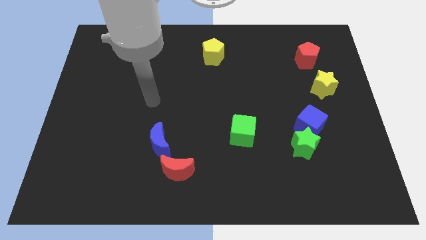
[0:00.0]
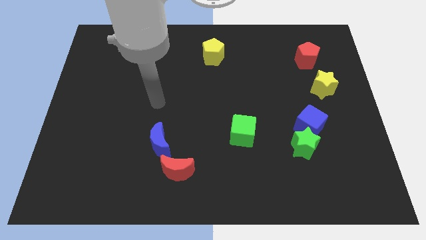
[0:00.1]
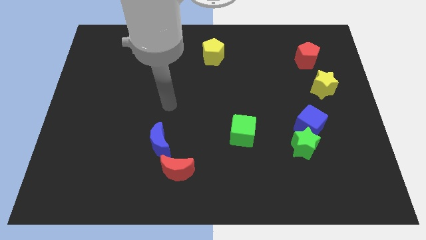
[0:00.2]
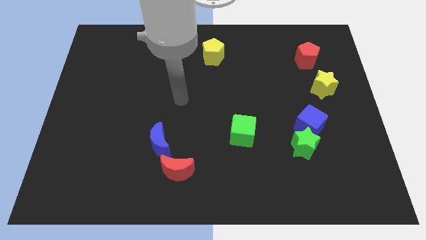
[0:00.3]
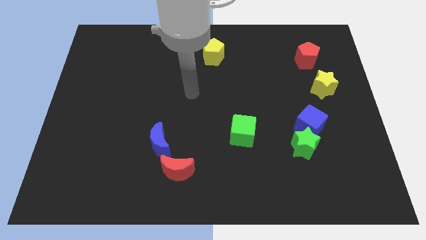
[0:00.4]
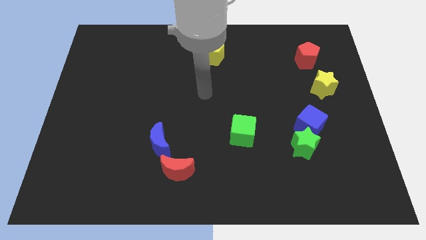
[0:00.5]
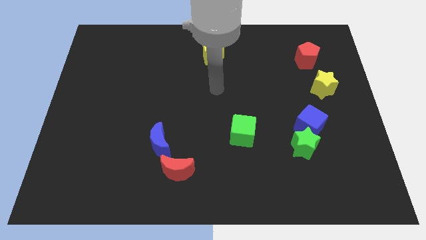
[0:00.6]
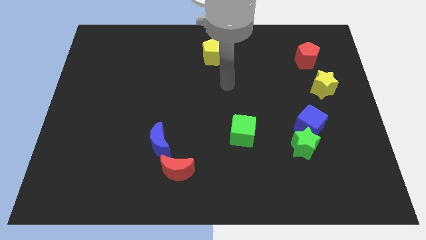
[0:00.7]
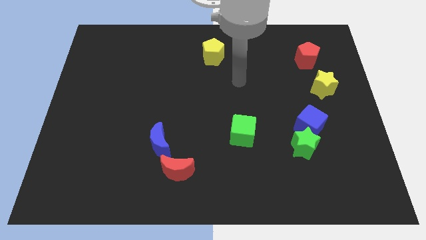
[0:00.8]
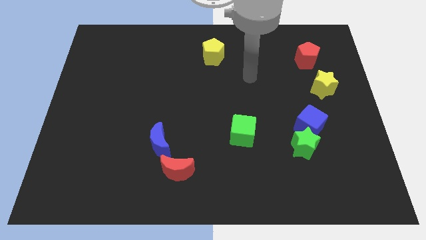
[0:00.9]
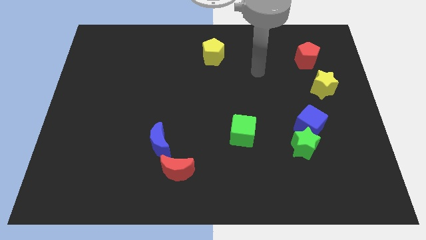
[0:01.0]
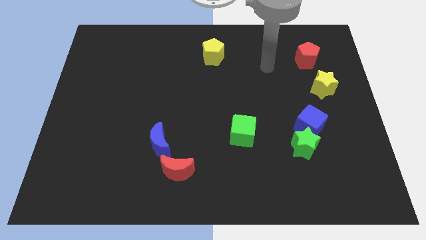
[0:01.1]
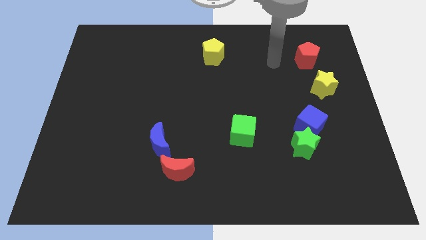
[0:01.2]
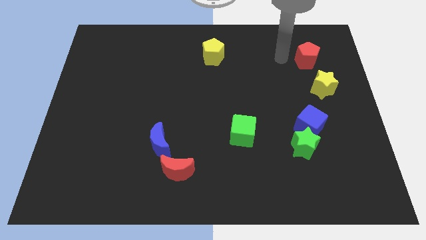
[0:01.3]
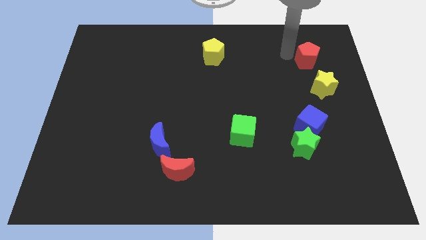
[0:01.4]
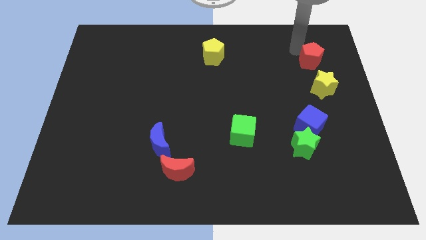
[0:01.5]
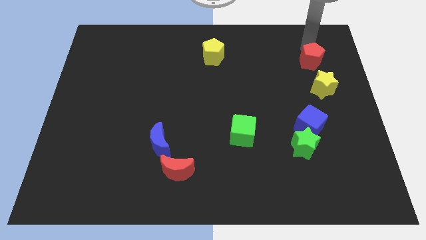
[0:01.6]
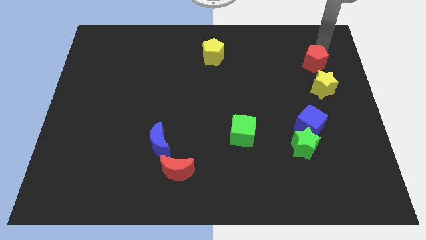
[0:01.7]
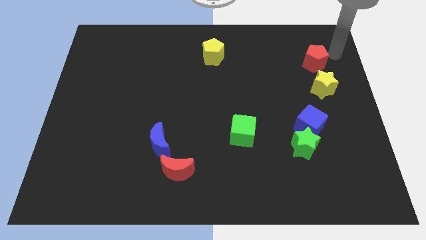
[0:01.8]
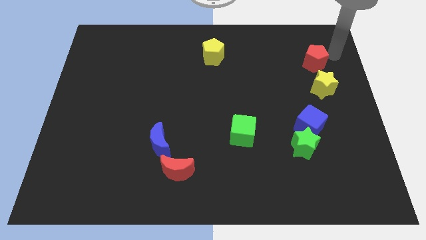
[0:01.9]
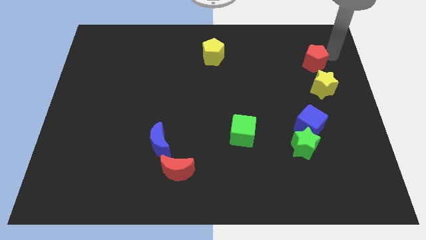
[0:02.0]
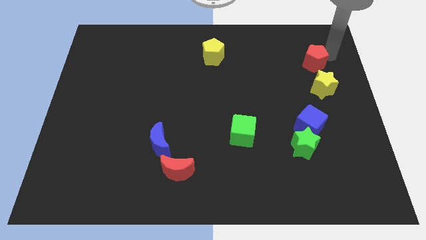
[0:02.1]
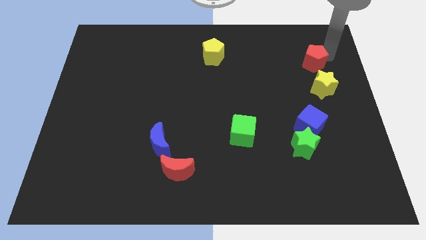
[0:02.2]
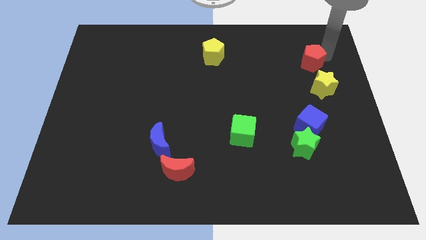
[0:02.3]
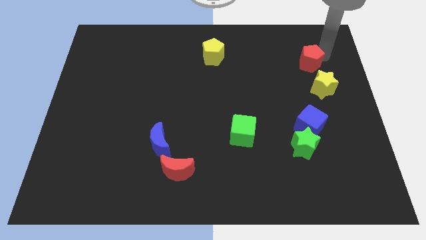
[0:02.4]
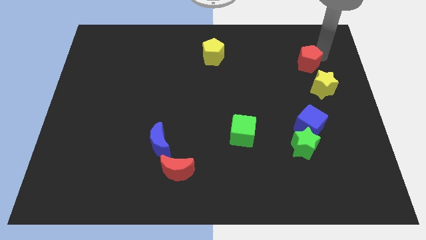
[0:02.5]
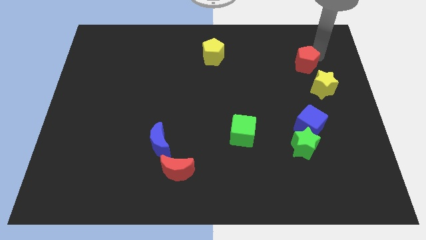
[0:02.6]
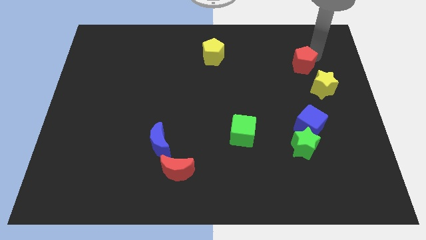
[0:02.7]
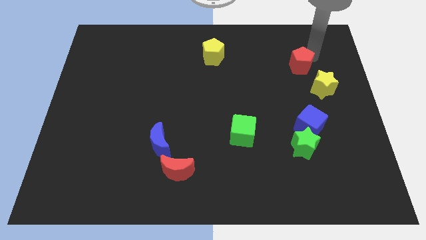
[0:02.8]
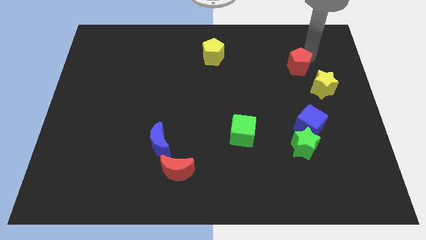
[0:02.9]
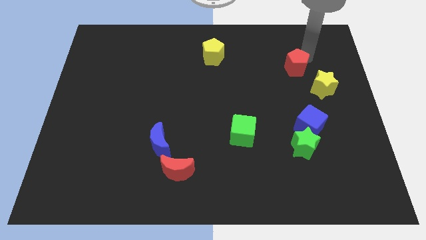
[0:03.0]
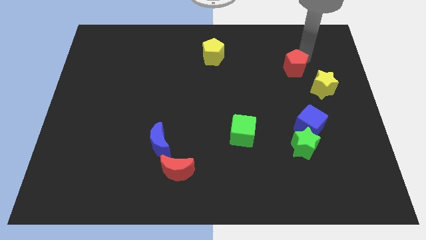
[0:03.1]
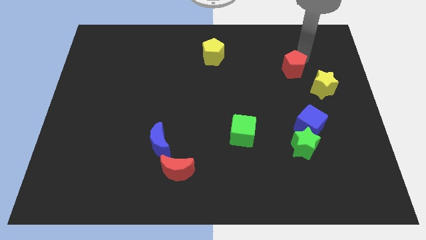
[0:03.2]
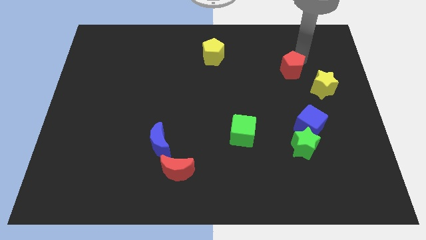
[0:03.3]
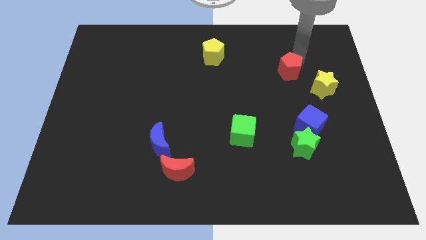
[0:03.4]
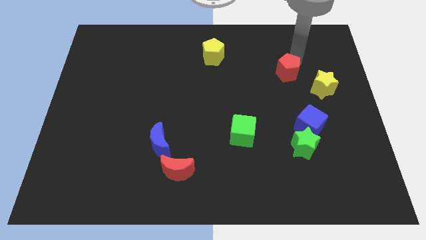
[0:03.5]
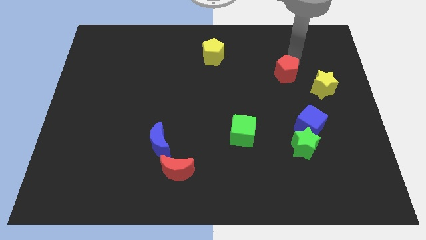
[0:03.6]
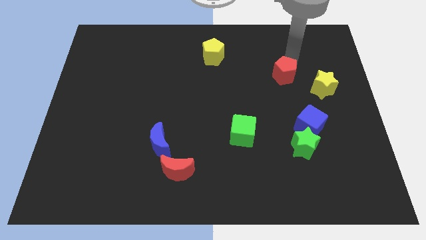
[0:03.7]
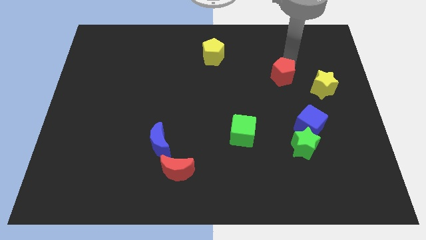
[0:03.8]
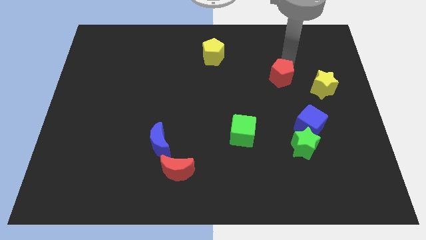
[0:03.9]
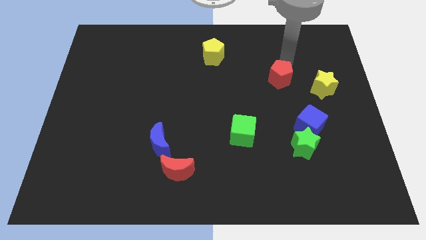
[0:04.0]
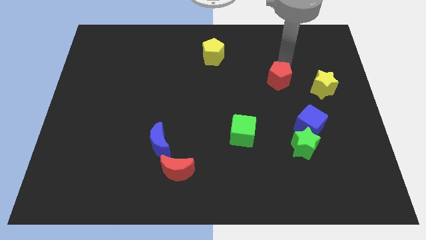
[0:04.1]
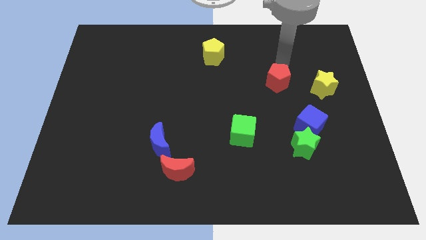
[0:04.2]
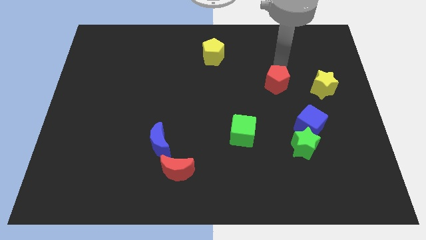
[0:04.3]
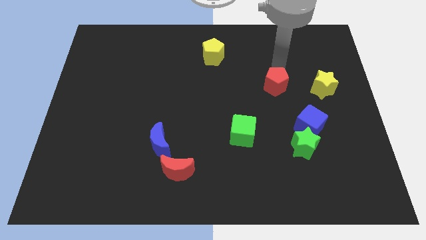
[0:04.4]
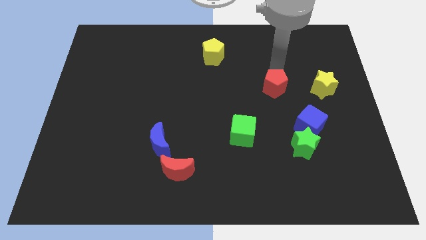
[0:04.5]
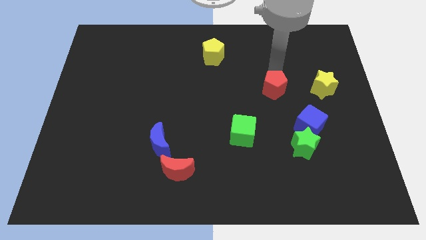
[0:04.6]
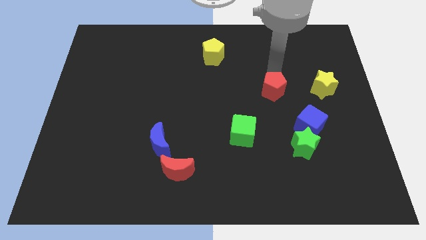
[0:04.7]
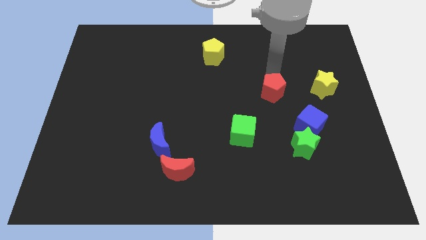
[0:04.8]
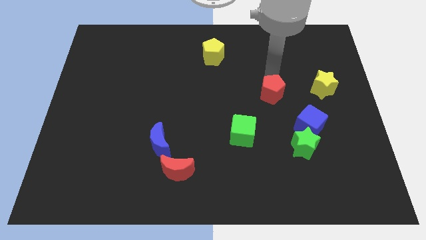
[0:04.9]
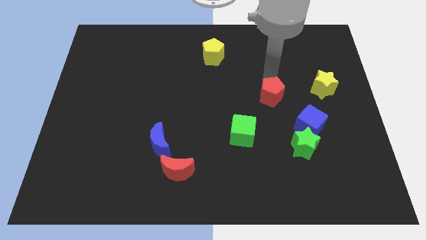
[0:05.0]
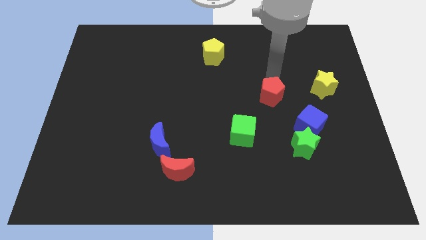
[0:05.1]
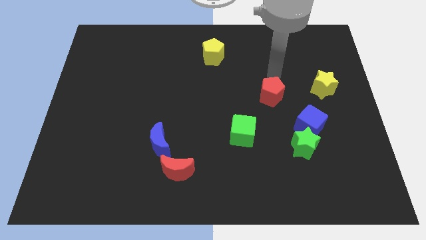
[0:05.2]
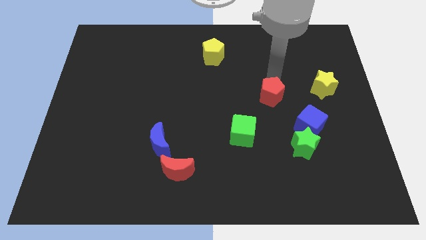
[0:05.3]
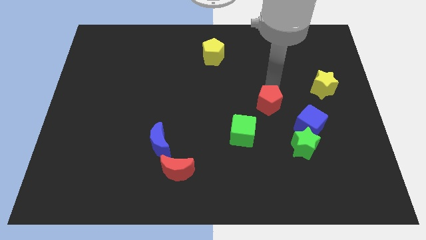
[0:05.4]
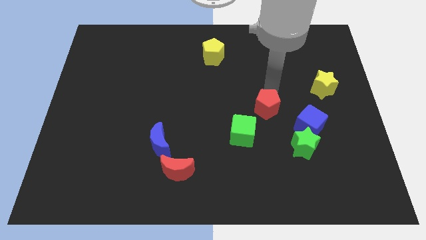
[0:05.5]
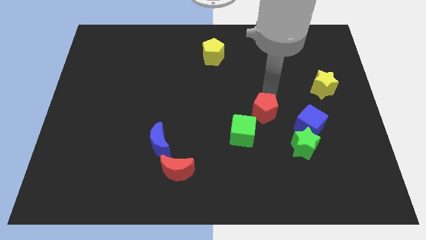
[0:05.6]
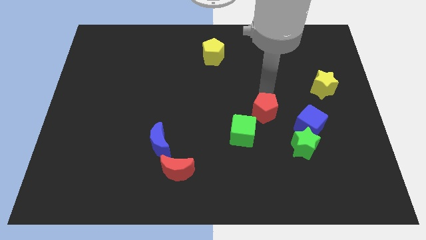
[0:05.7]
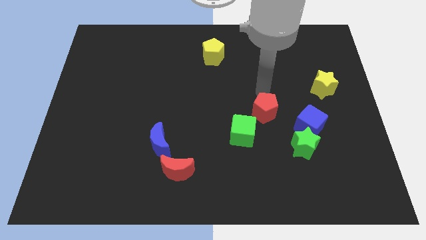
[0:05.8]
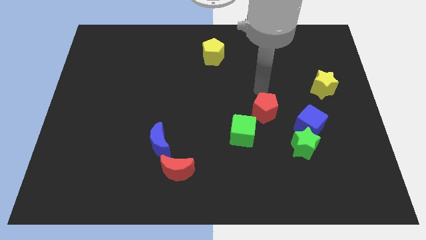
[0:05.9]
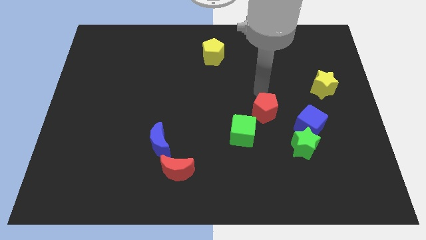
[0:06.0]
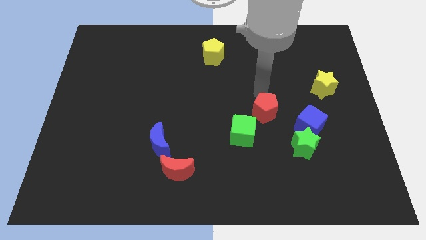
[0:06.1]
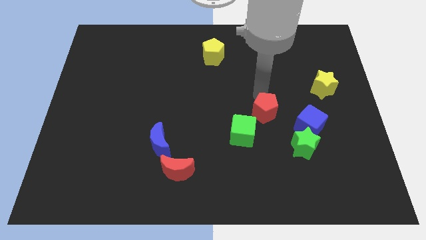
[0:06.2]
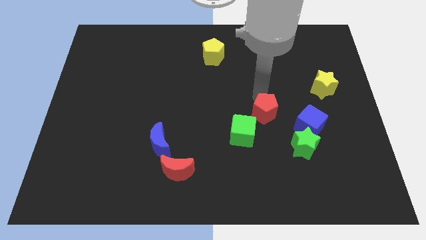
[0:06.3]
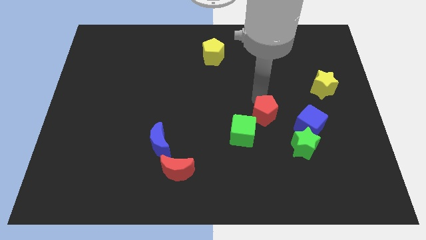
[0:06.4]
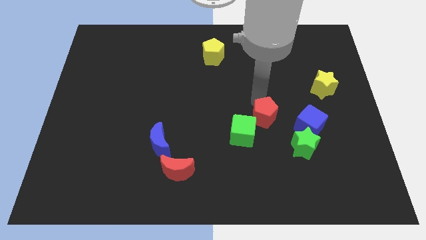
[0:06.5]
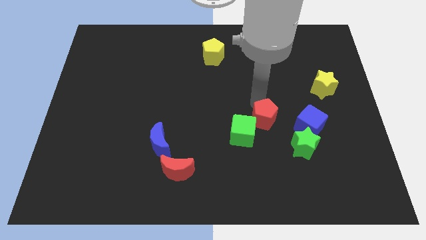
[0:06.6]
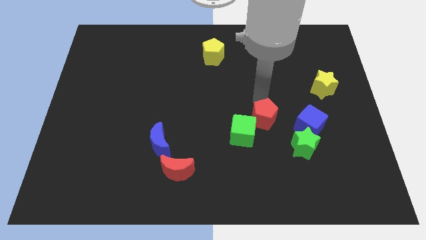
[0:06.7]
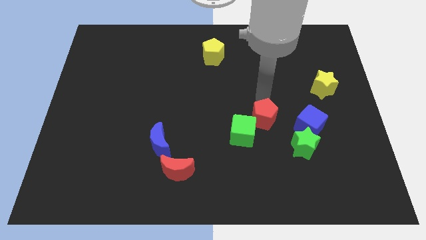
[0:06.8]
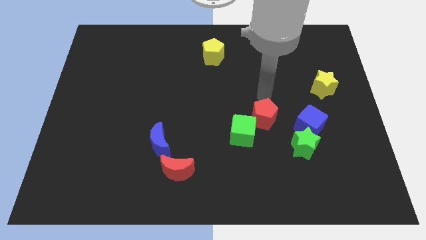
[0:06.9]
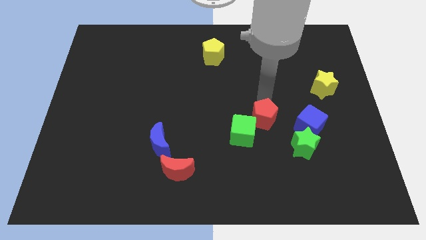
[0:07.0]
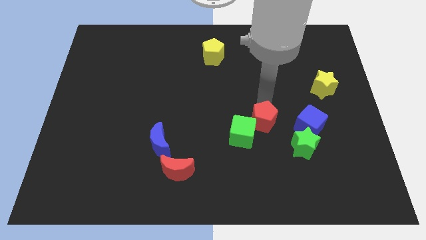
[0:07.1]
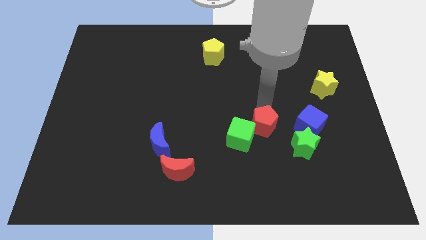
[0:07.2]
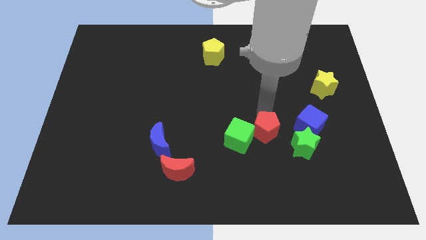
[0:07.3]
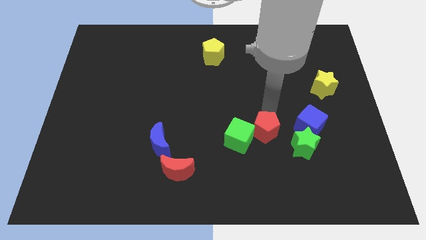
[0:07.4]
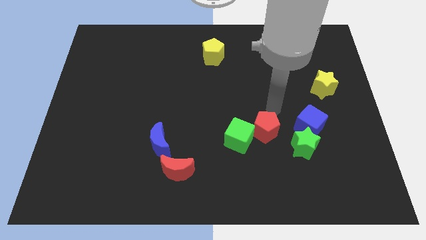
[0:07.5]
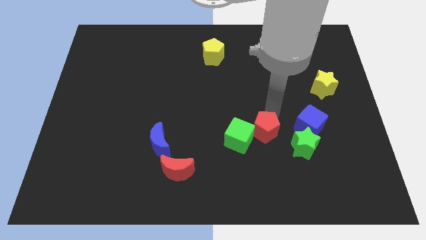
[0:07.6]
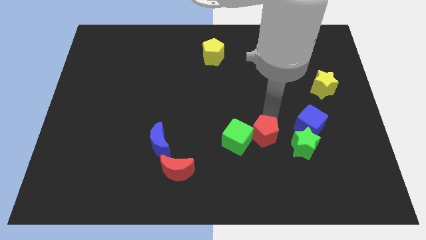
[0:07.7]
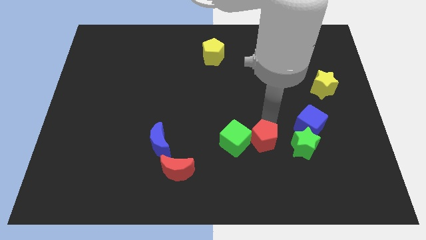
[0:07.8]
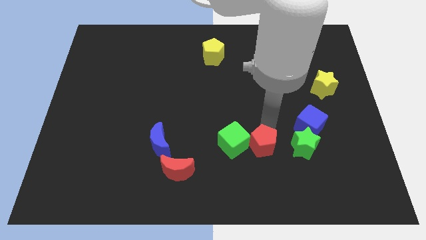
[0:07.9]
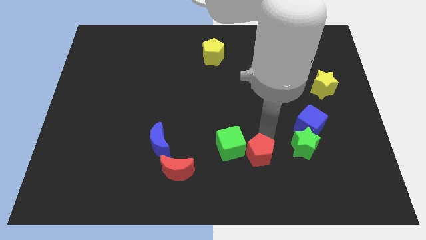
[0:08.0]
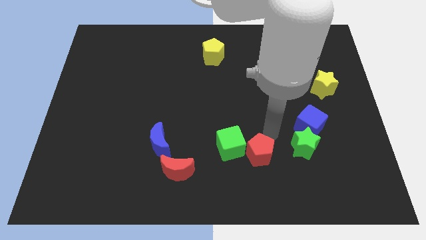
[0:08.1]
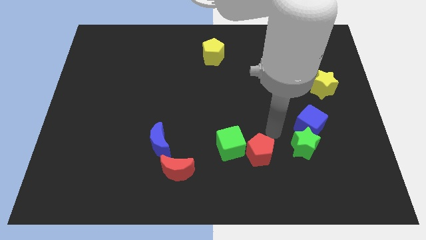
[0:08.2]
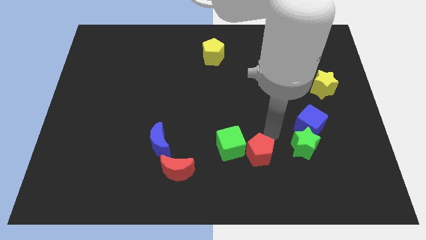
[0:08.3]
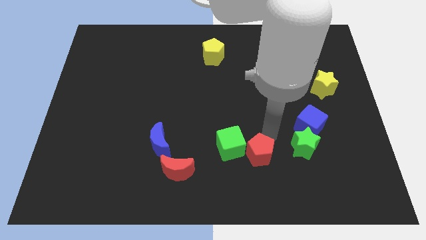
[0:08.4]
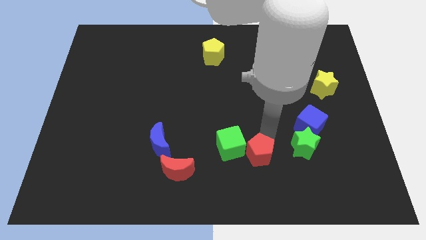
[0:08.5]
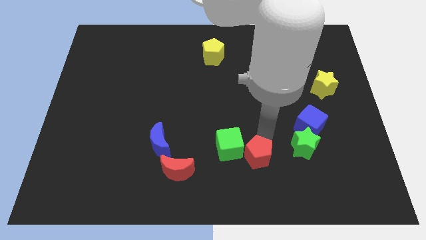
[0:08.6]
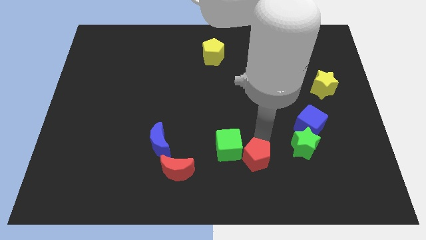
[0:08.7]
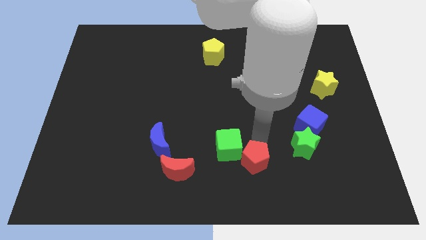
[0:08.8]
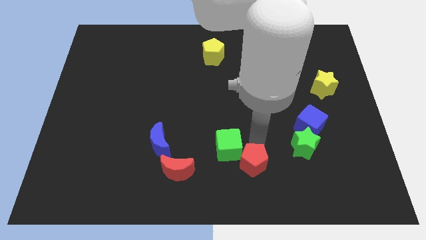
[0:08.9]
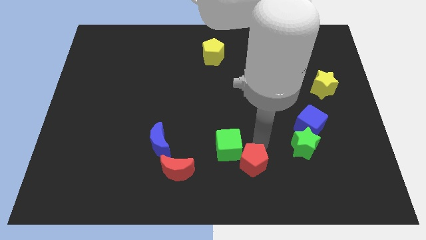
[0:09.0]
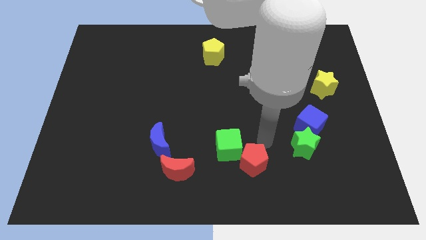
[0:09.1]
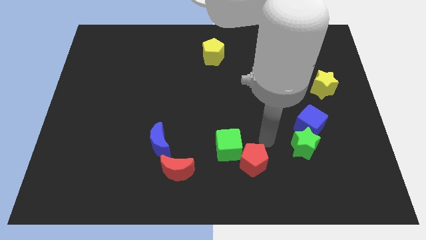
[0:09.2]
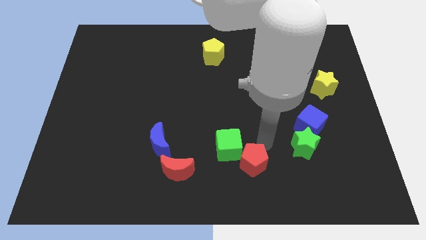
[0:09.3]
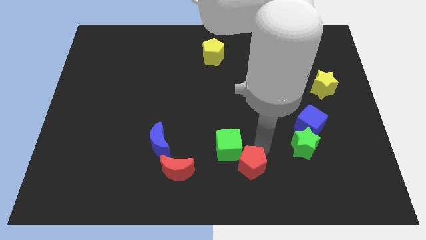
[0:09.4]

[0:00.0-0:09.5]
push the red pentagon to the bottom
